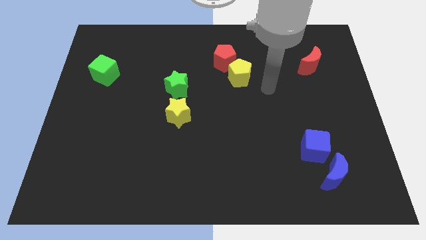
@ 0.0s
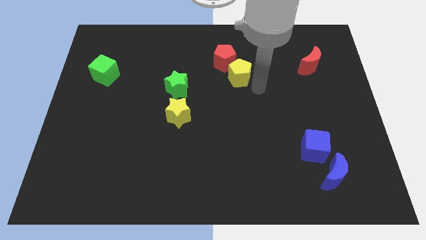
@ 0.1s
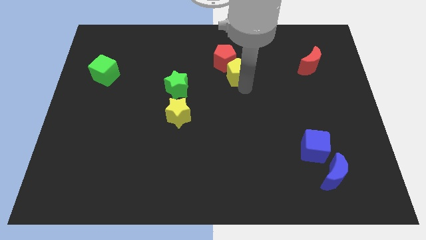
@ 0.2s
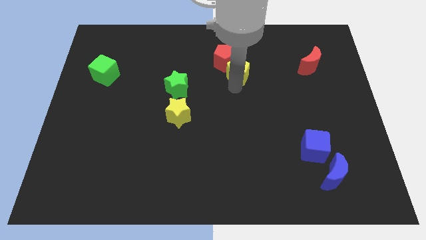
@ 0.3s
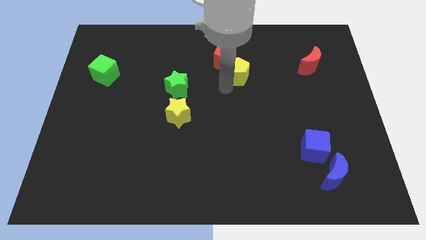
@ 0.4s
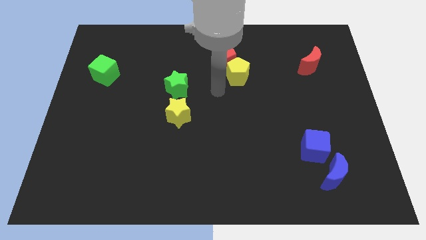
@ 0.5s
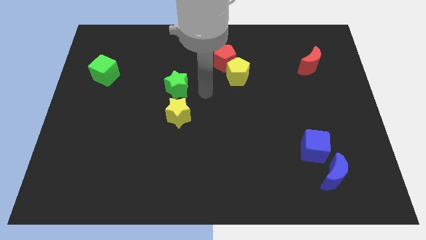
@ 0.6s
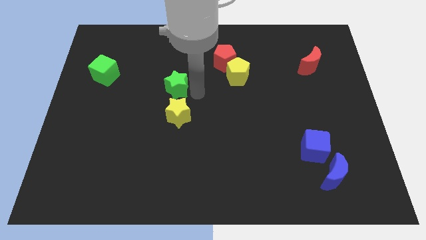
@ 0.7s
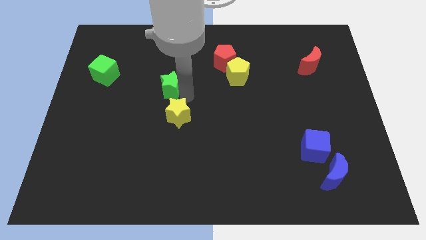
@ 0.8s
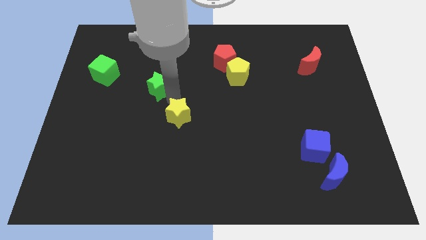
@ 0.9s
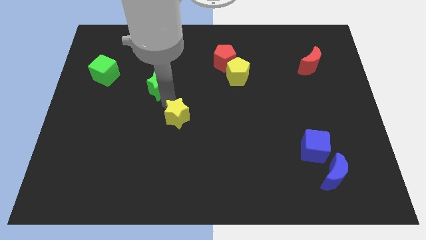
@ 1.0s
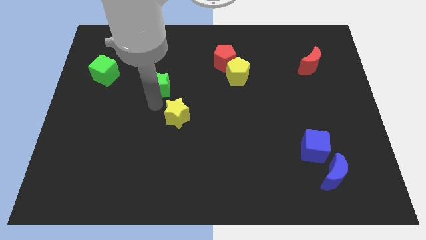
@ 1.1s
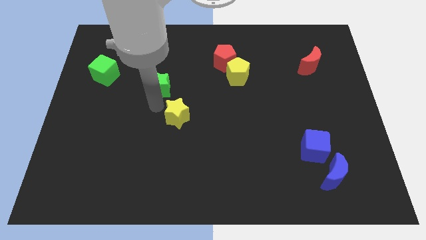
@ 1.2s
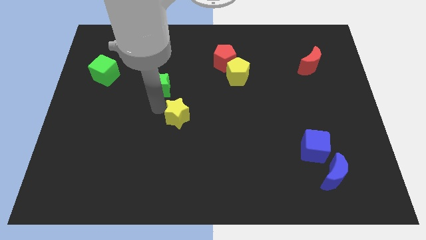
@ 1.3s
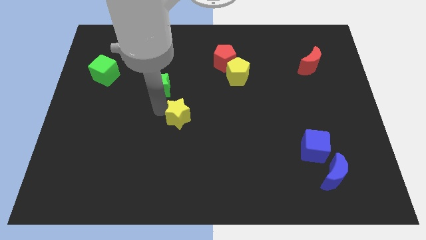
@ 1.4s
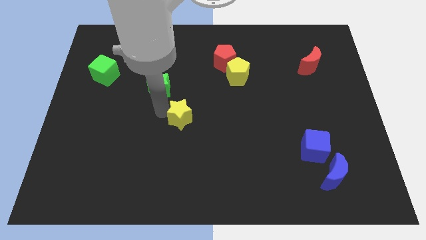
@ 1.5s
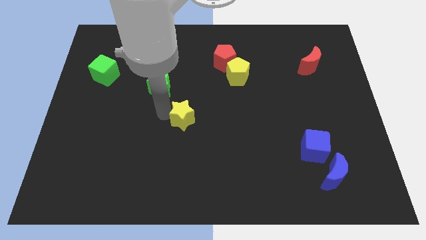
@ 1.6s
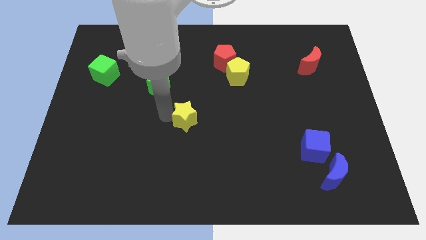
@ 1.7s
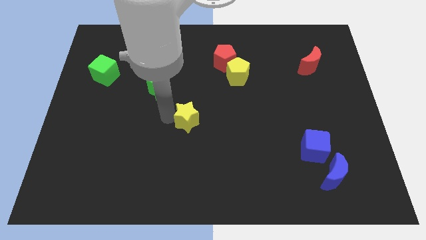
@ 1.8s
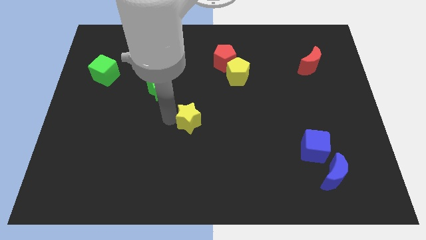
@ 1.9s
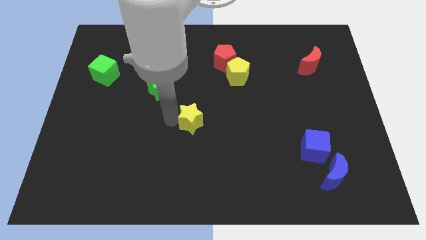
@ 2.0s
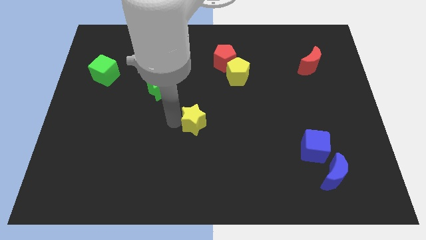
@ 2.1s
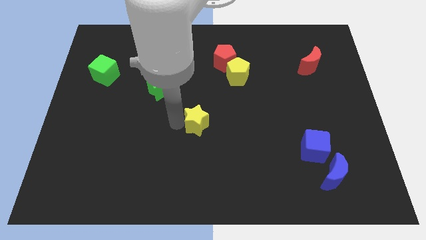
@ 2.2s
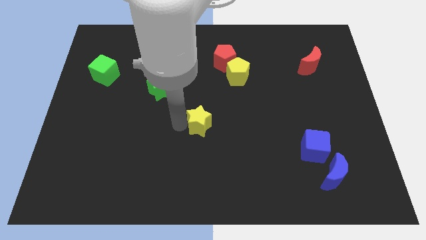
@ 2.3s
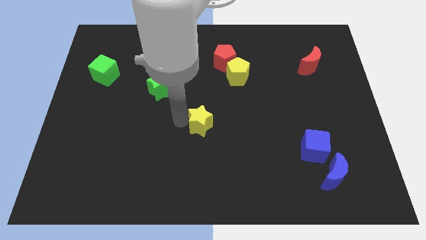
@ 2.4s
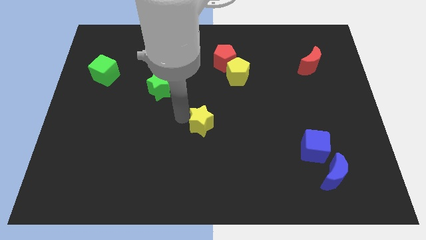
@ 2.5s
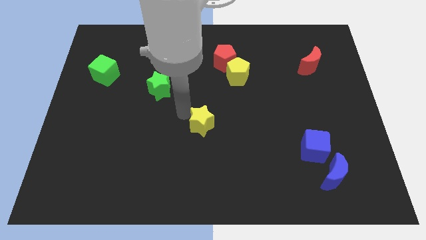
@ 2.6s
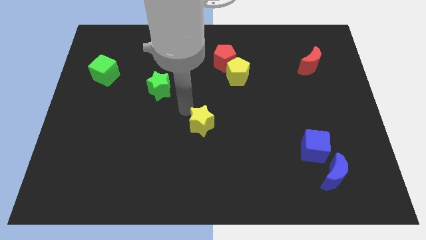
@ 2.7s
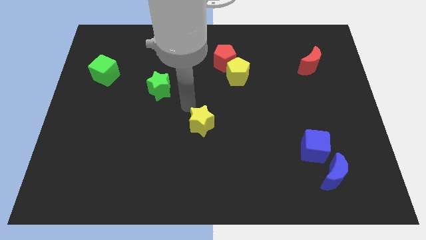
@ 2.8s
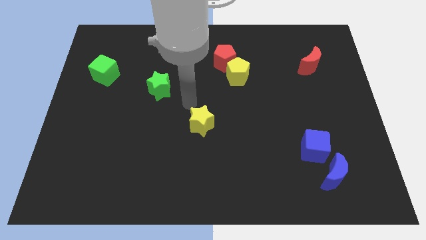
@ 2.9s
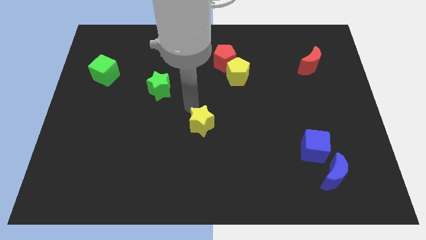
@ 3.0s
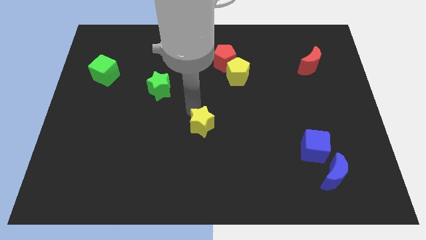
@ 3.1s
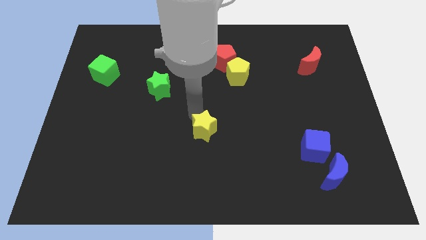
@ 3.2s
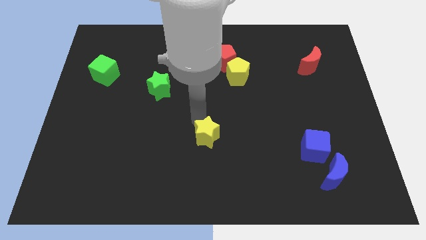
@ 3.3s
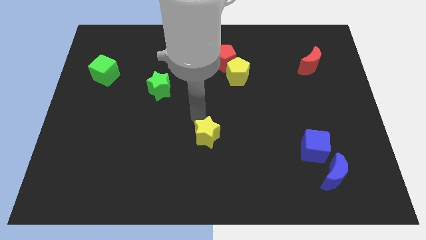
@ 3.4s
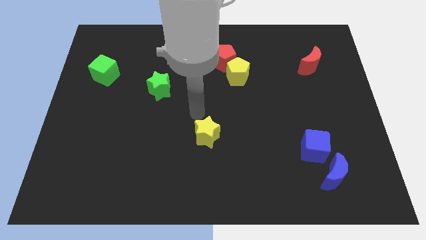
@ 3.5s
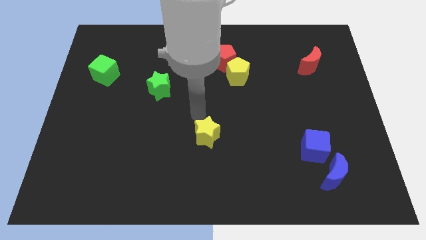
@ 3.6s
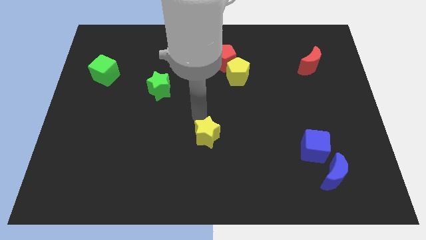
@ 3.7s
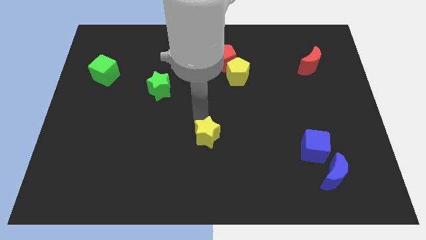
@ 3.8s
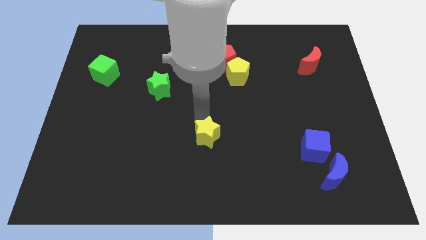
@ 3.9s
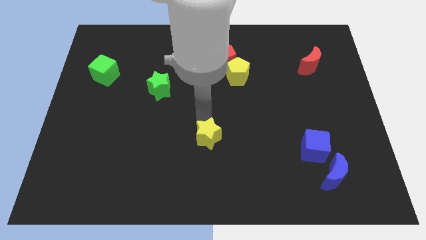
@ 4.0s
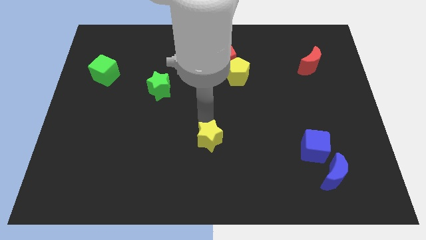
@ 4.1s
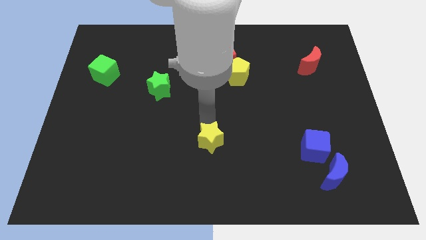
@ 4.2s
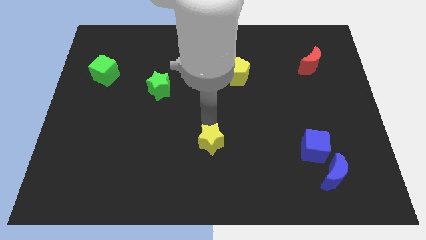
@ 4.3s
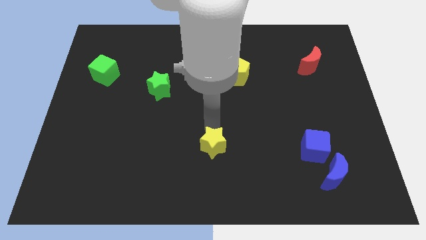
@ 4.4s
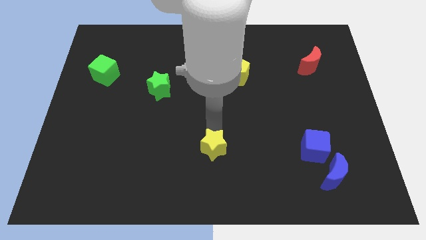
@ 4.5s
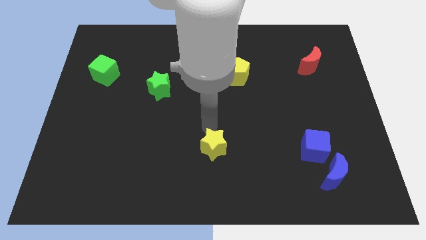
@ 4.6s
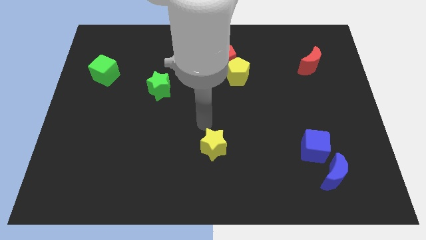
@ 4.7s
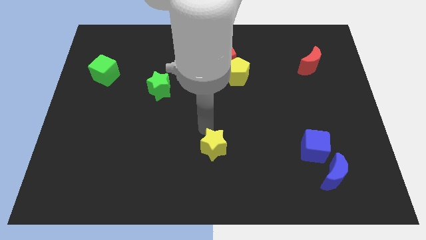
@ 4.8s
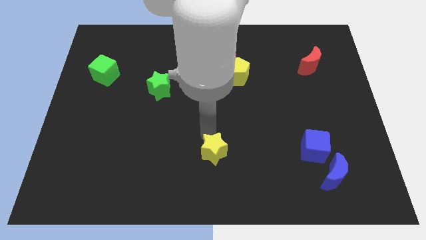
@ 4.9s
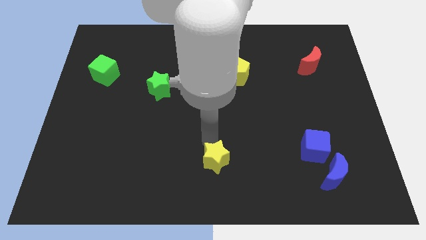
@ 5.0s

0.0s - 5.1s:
slide the yellow star to the bottom side

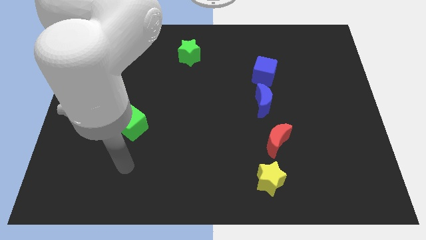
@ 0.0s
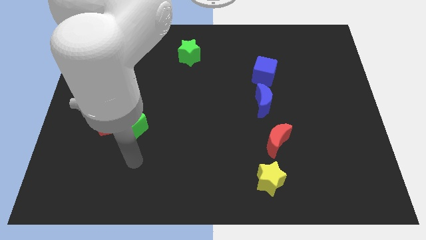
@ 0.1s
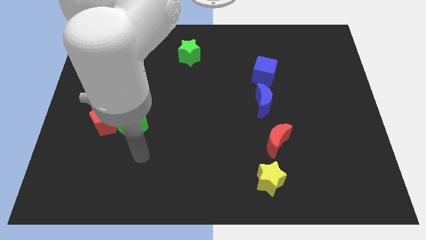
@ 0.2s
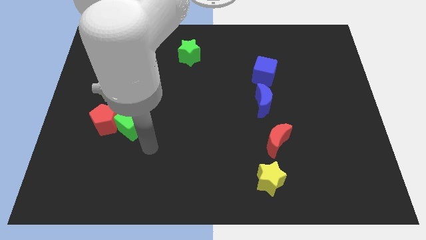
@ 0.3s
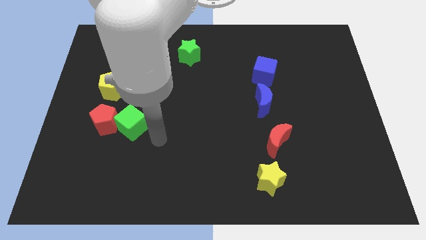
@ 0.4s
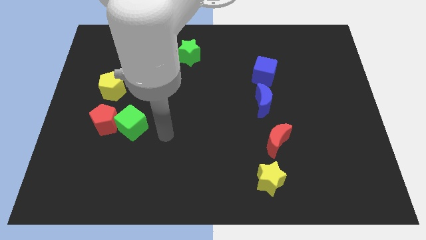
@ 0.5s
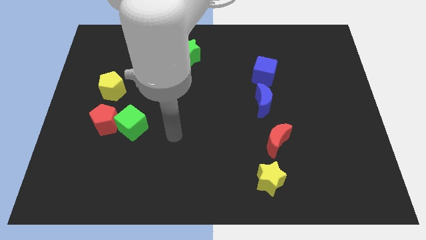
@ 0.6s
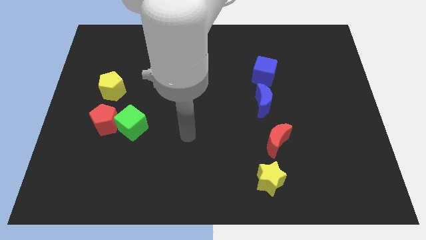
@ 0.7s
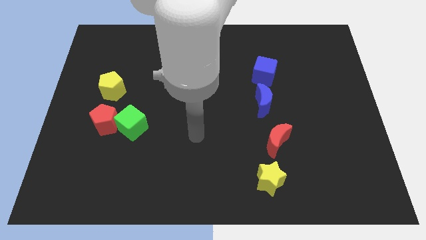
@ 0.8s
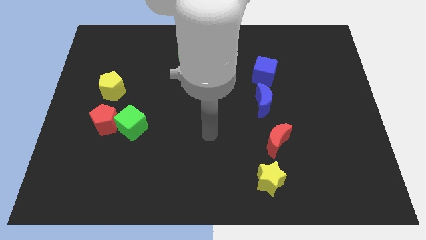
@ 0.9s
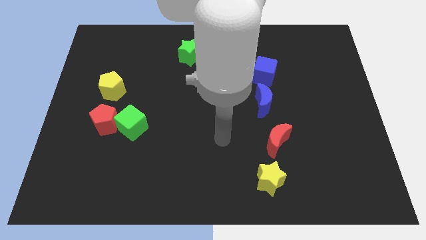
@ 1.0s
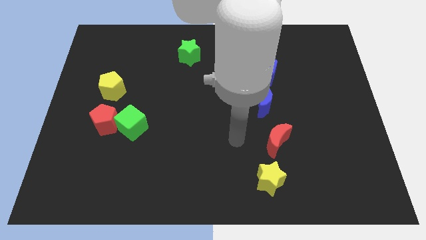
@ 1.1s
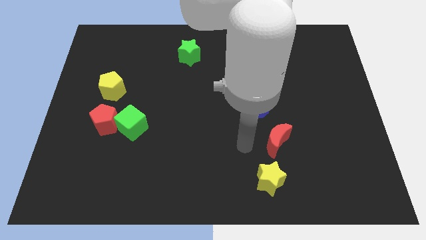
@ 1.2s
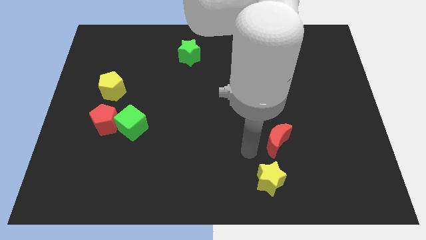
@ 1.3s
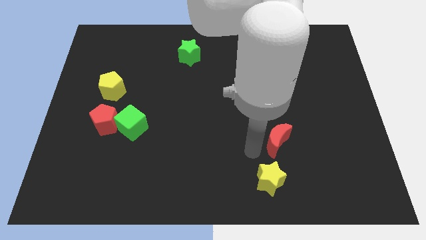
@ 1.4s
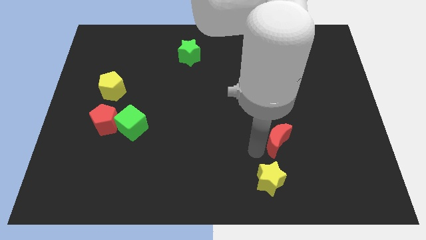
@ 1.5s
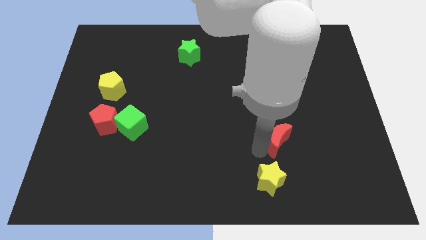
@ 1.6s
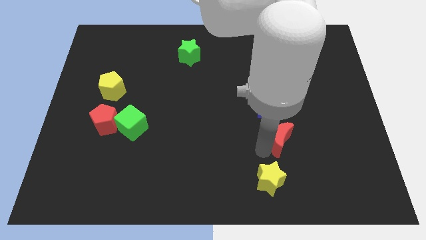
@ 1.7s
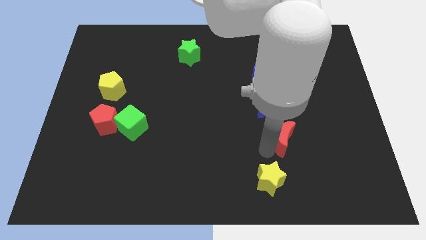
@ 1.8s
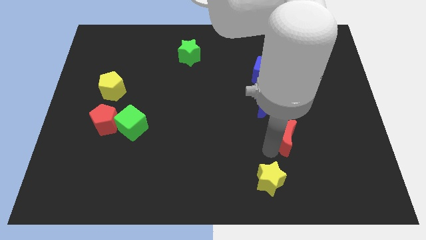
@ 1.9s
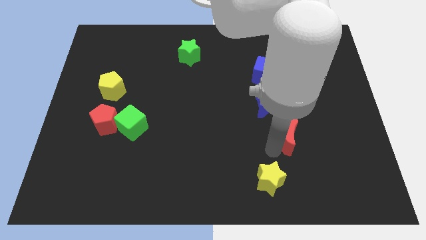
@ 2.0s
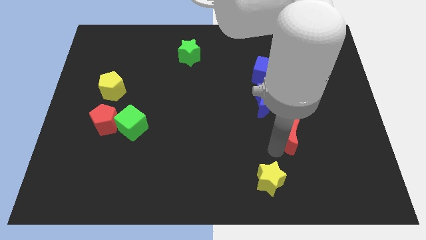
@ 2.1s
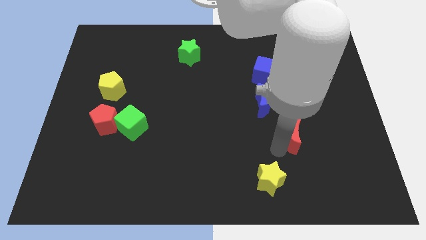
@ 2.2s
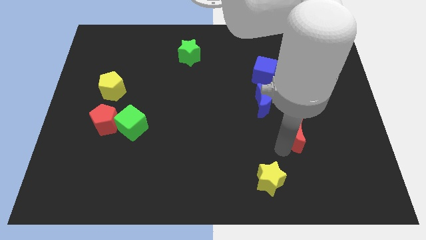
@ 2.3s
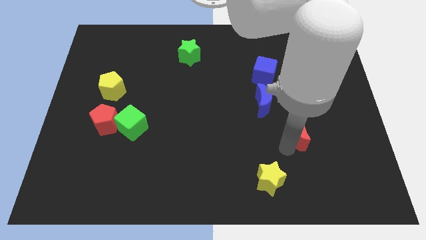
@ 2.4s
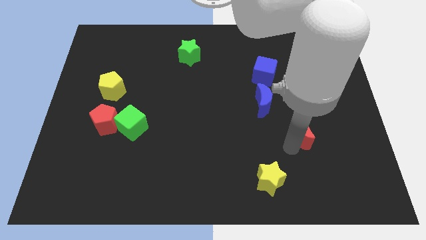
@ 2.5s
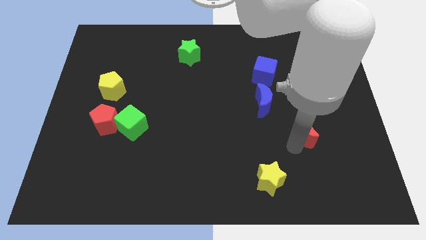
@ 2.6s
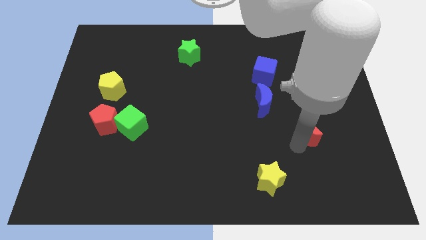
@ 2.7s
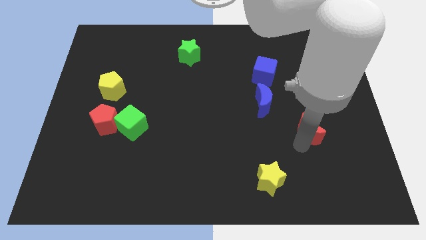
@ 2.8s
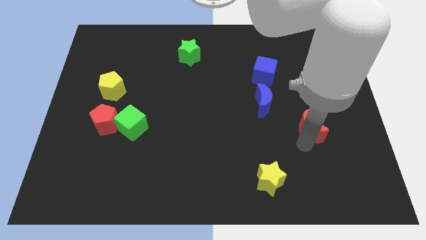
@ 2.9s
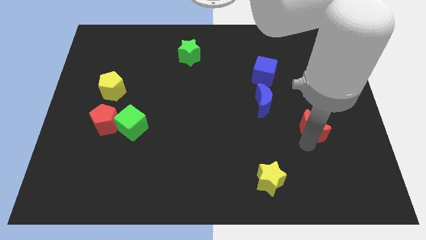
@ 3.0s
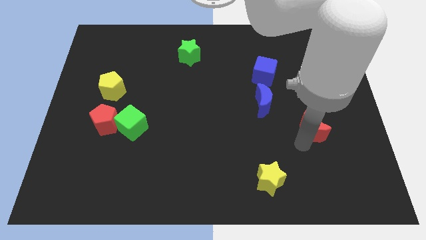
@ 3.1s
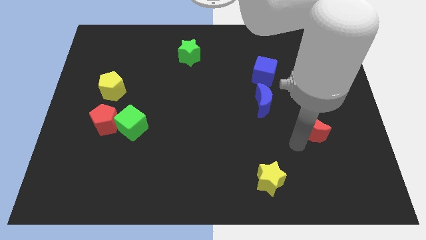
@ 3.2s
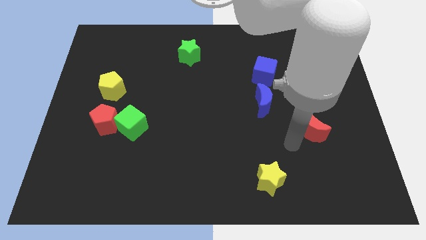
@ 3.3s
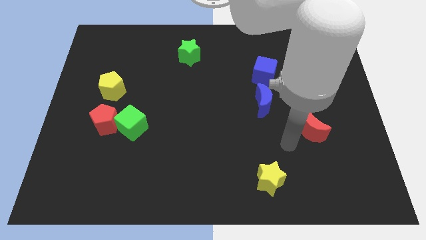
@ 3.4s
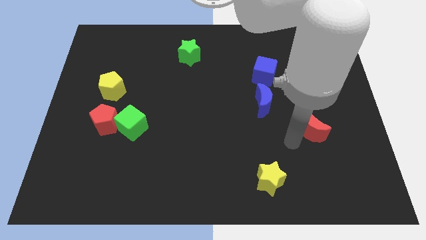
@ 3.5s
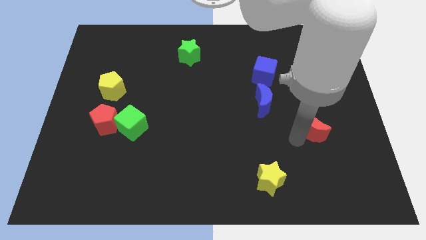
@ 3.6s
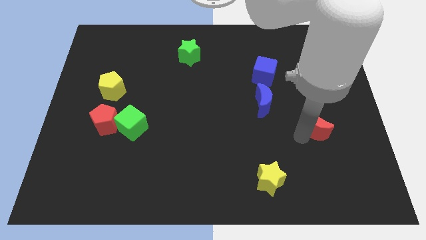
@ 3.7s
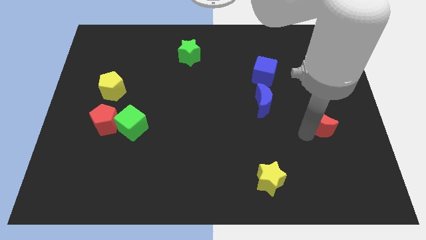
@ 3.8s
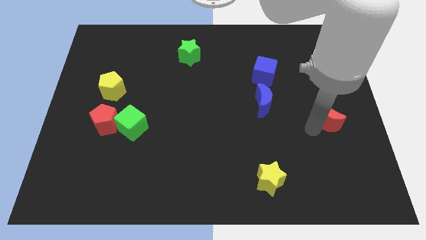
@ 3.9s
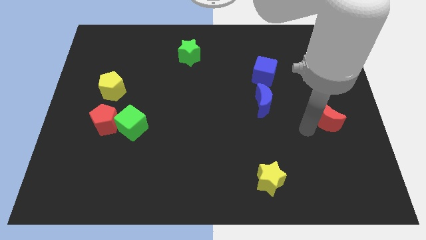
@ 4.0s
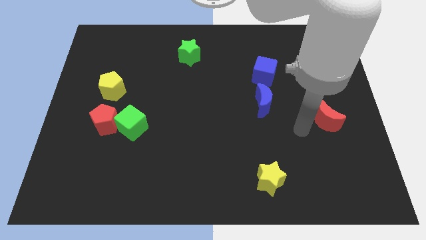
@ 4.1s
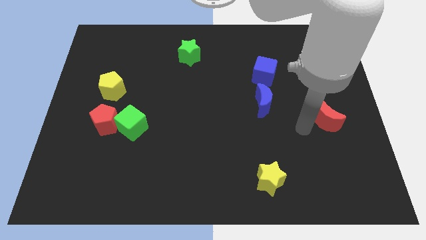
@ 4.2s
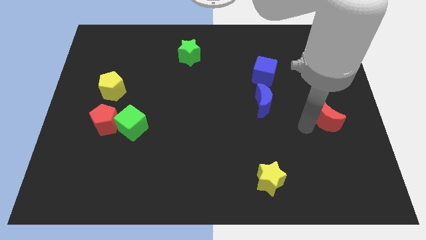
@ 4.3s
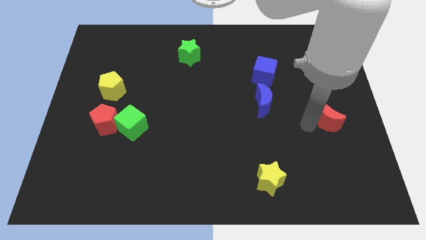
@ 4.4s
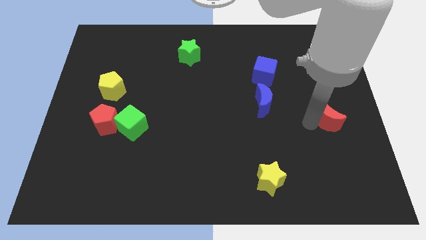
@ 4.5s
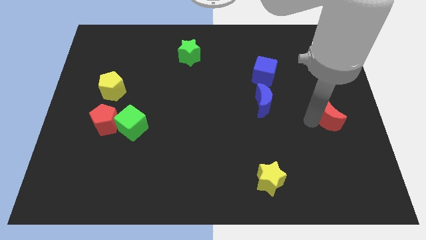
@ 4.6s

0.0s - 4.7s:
push the red moon to the right side of the board
